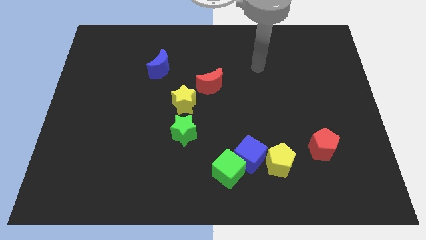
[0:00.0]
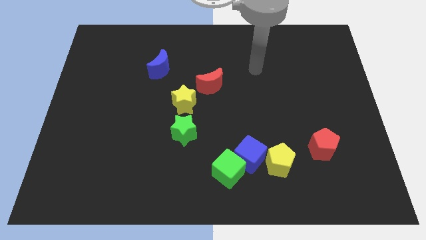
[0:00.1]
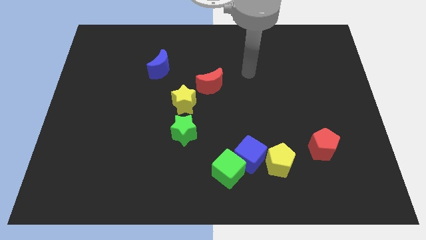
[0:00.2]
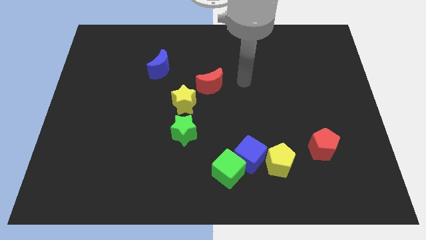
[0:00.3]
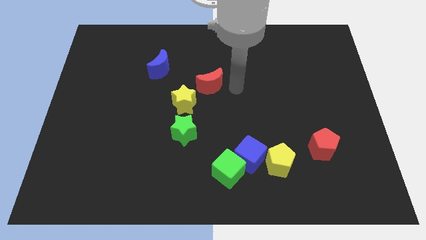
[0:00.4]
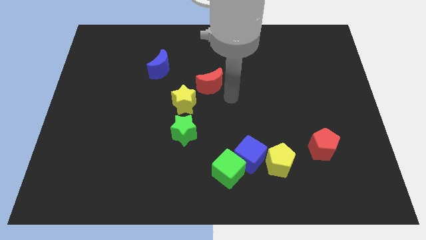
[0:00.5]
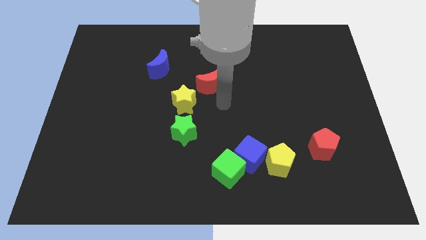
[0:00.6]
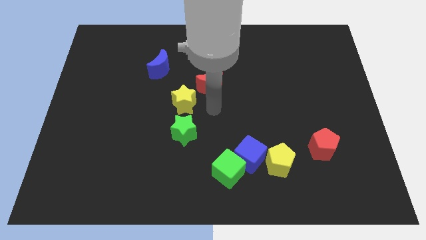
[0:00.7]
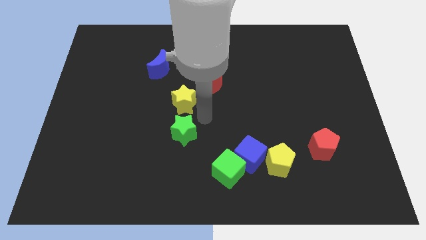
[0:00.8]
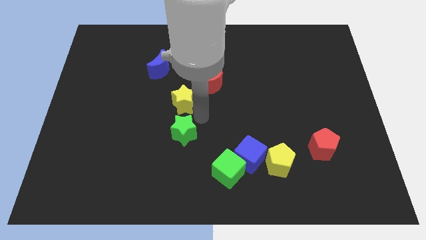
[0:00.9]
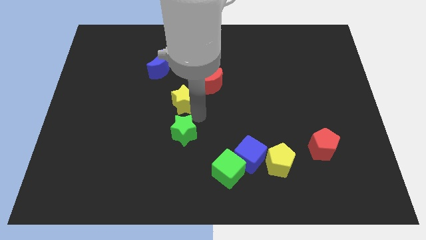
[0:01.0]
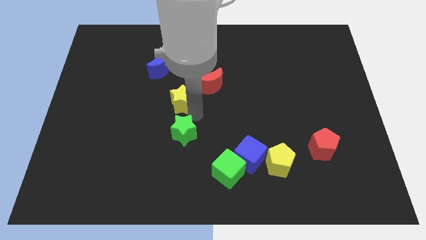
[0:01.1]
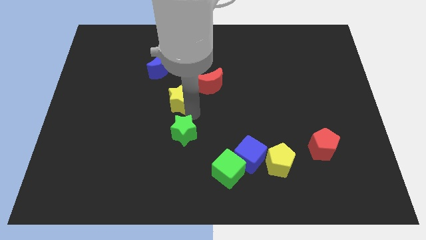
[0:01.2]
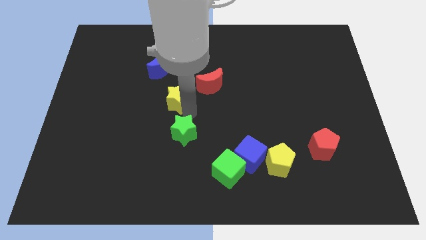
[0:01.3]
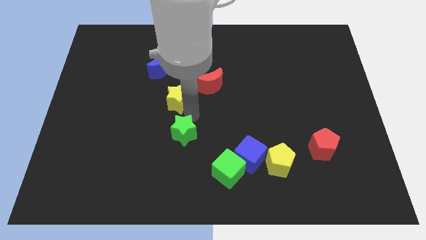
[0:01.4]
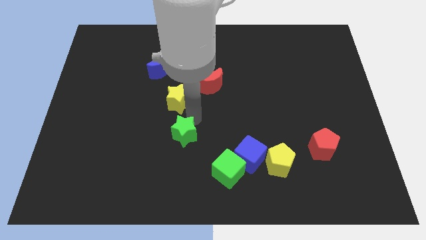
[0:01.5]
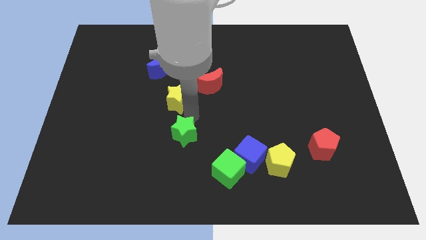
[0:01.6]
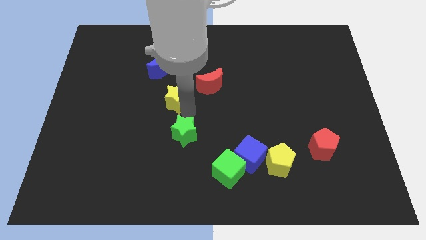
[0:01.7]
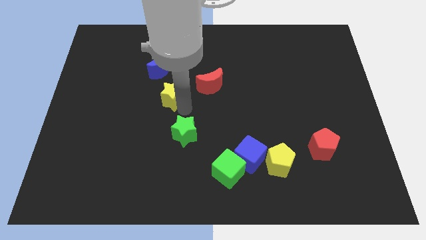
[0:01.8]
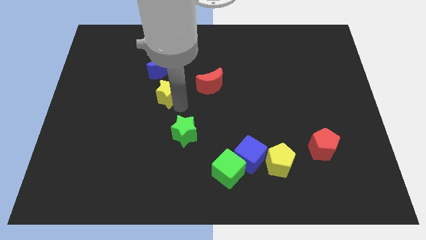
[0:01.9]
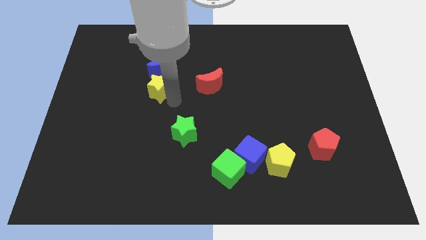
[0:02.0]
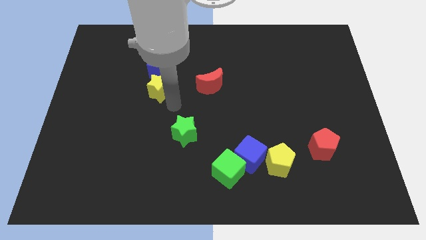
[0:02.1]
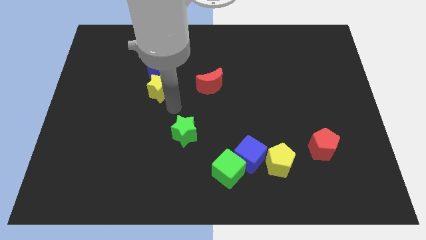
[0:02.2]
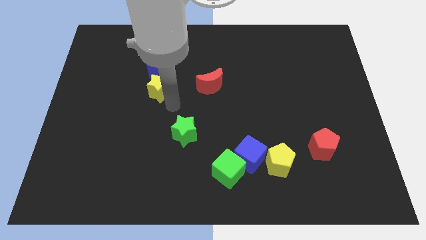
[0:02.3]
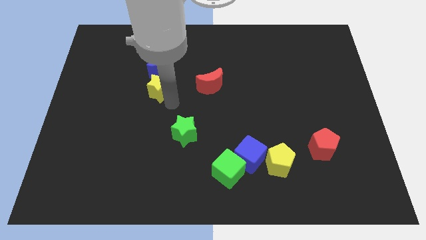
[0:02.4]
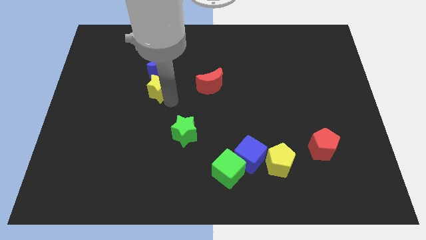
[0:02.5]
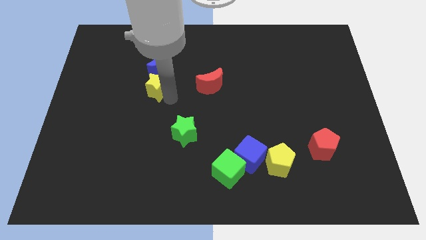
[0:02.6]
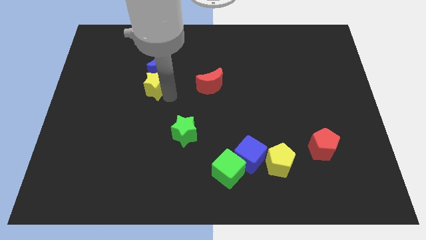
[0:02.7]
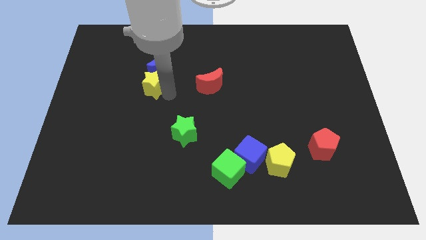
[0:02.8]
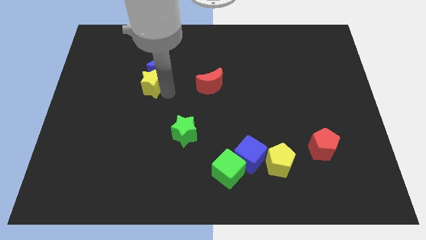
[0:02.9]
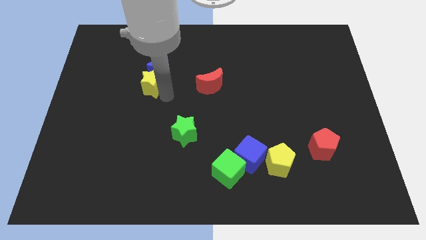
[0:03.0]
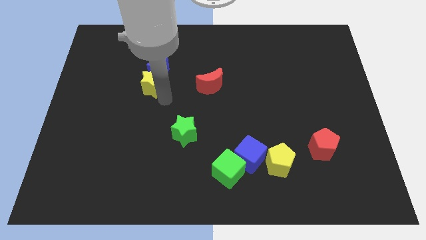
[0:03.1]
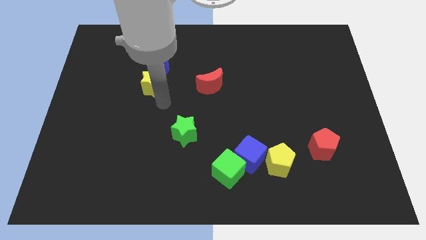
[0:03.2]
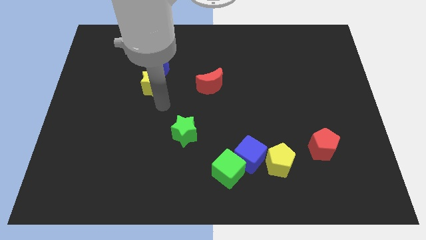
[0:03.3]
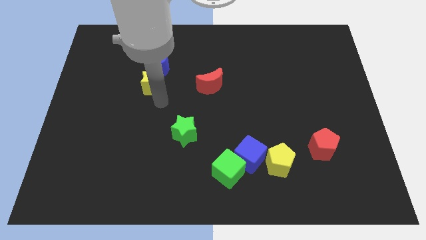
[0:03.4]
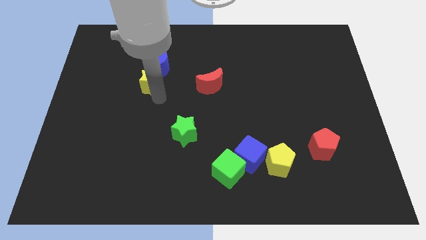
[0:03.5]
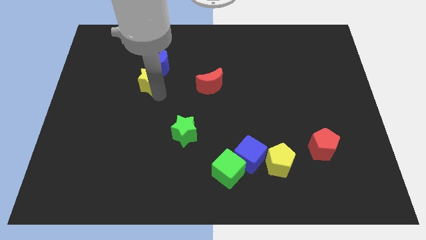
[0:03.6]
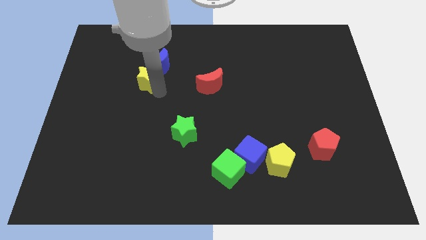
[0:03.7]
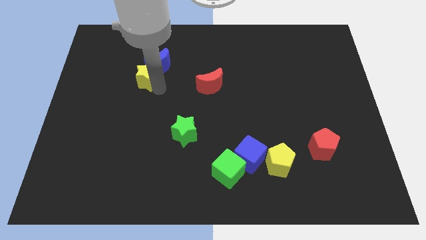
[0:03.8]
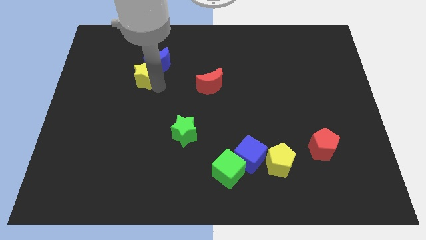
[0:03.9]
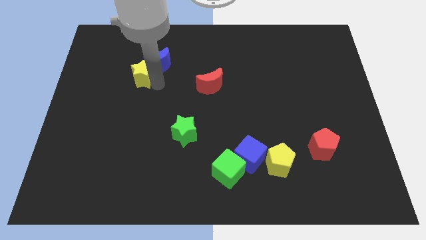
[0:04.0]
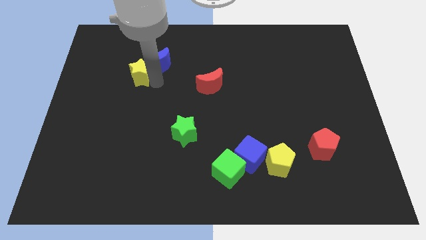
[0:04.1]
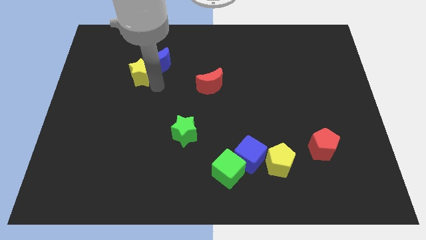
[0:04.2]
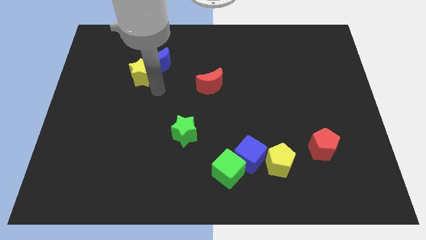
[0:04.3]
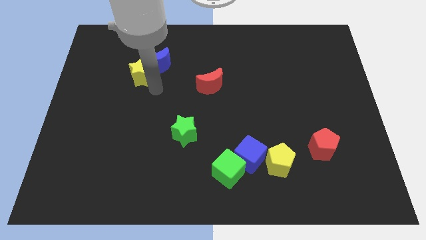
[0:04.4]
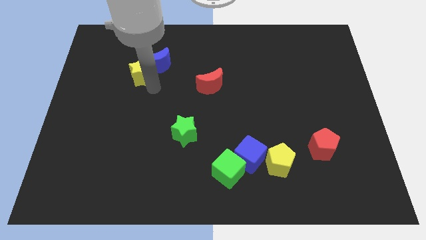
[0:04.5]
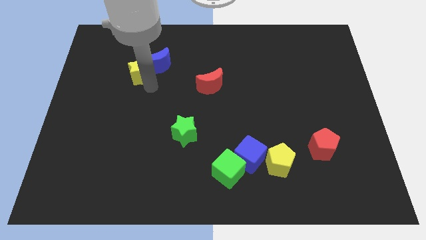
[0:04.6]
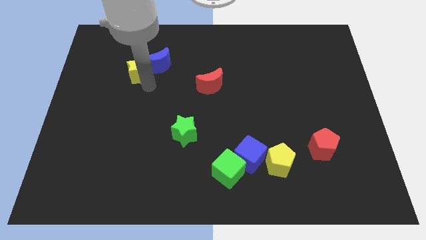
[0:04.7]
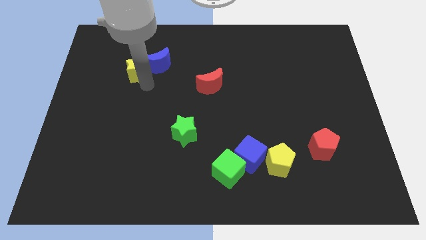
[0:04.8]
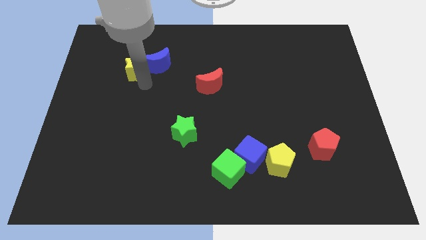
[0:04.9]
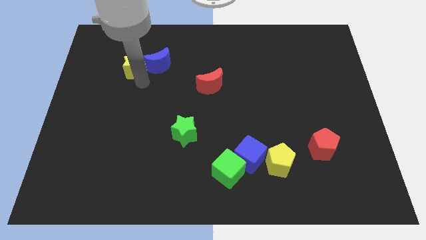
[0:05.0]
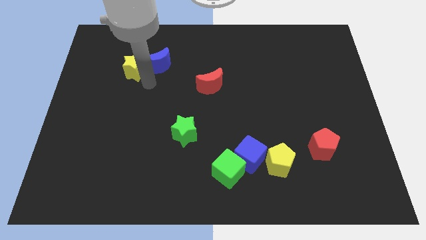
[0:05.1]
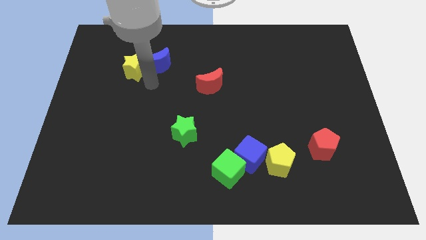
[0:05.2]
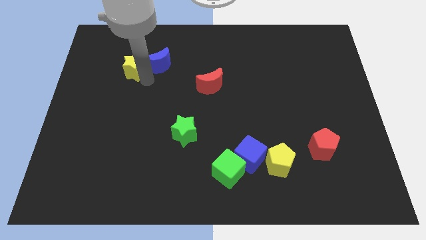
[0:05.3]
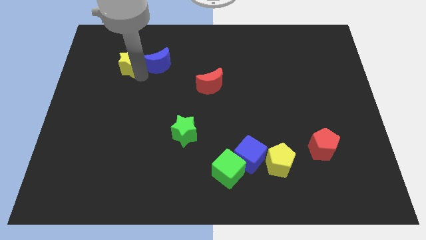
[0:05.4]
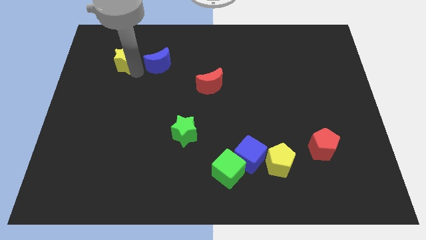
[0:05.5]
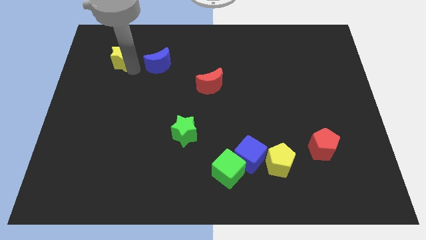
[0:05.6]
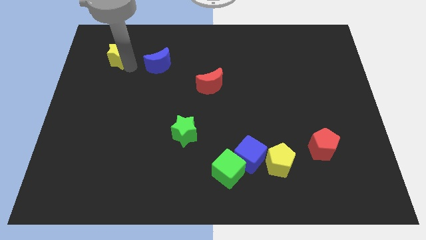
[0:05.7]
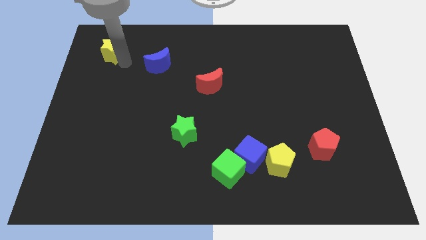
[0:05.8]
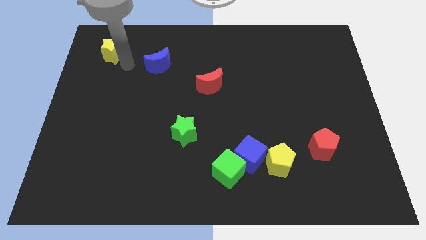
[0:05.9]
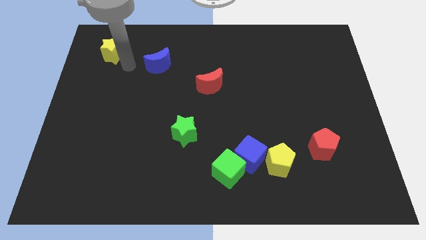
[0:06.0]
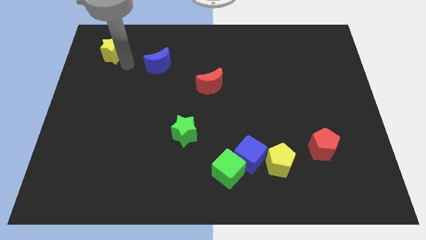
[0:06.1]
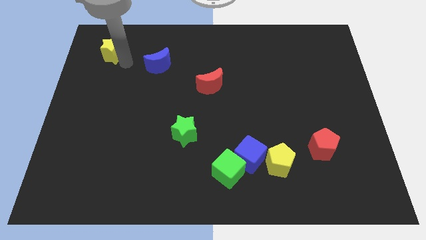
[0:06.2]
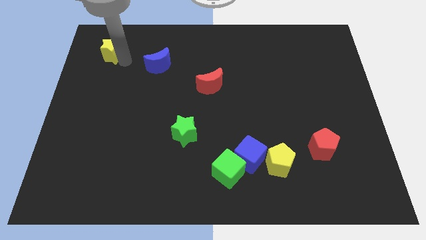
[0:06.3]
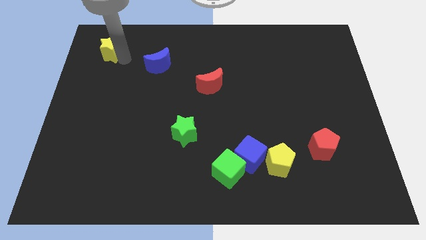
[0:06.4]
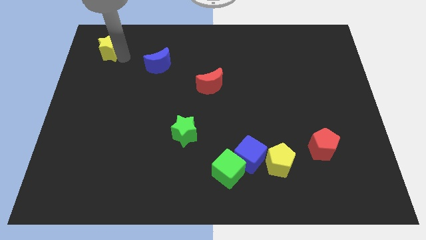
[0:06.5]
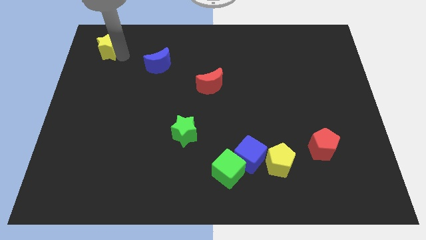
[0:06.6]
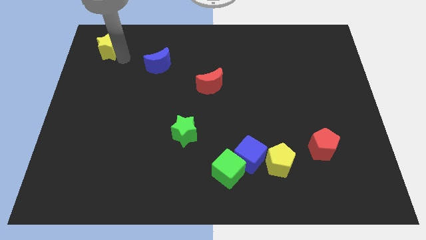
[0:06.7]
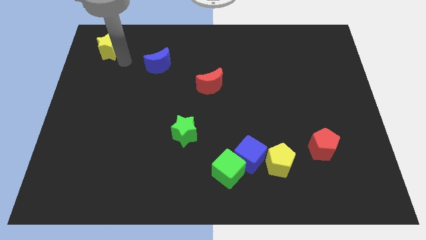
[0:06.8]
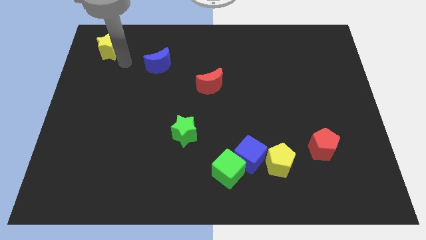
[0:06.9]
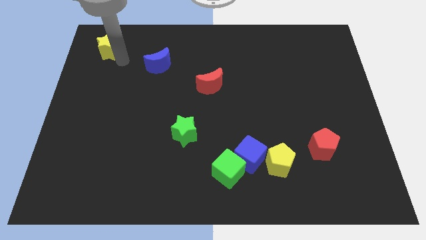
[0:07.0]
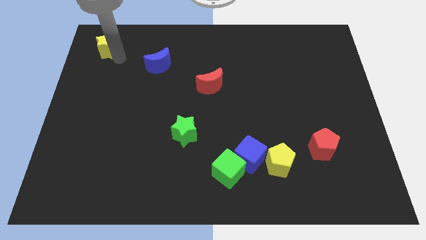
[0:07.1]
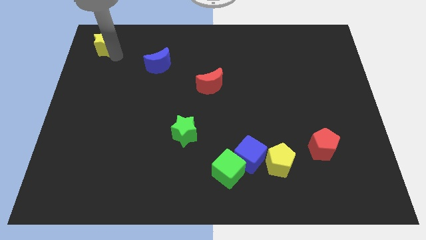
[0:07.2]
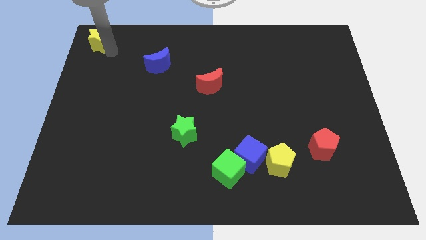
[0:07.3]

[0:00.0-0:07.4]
push the yellow star to the top left of the board

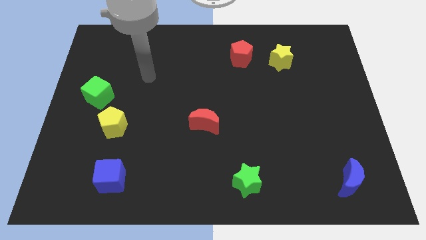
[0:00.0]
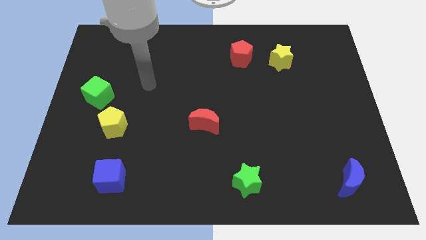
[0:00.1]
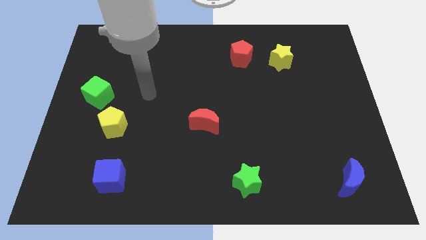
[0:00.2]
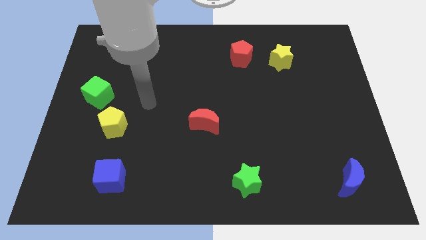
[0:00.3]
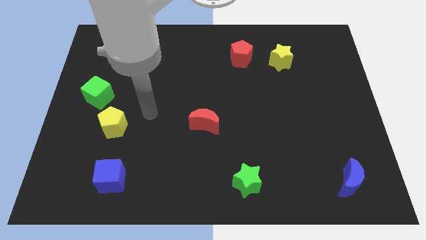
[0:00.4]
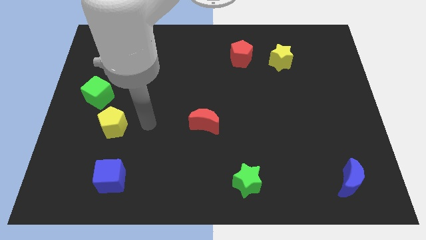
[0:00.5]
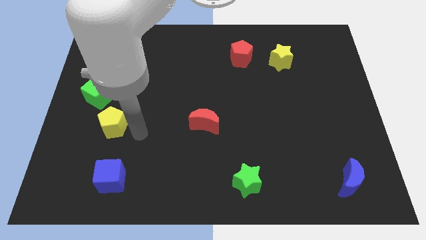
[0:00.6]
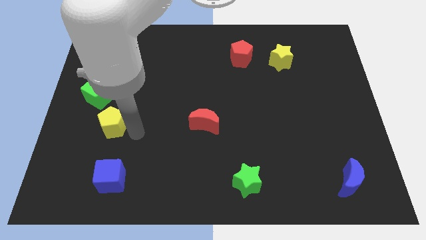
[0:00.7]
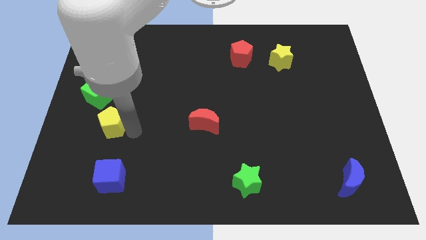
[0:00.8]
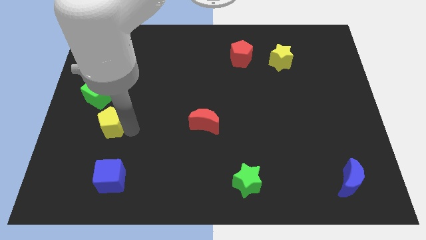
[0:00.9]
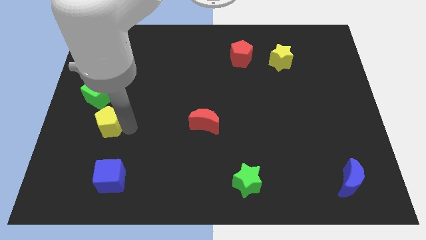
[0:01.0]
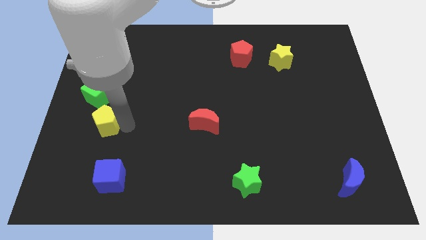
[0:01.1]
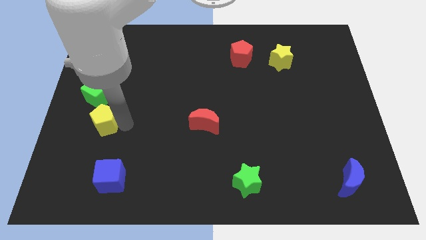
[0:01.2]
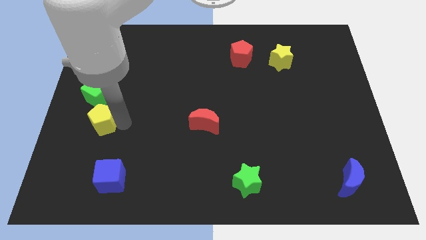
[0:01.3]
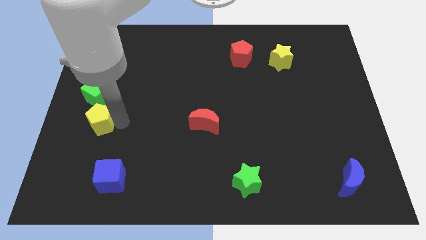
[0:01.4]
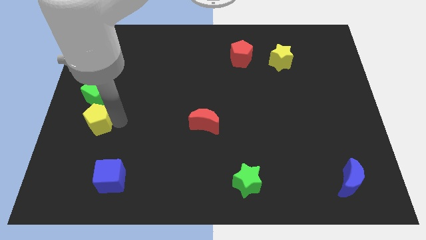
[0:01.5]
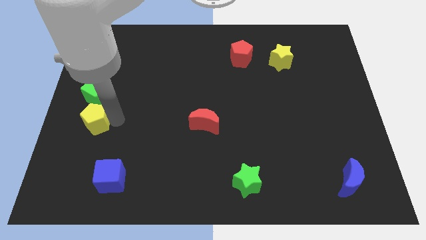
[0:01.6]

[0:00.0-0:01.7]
move the yellow pentagon to the left side
